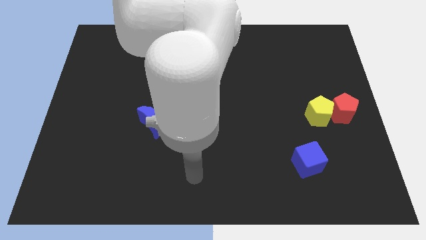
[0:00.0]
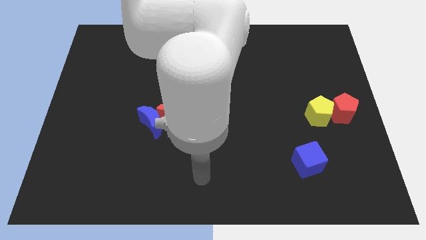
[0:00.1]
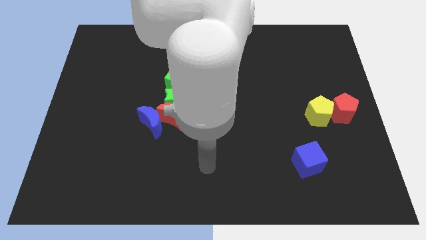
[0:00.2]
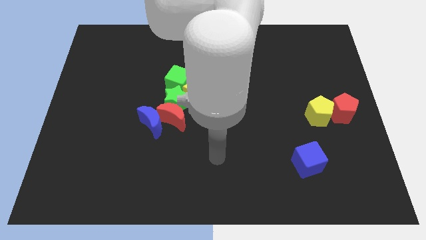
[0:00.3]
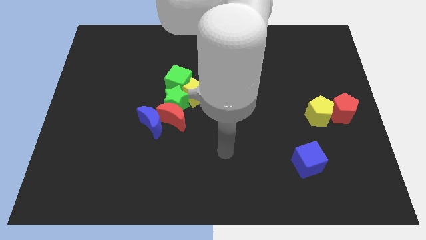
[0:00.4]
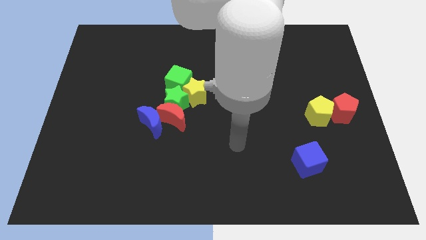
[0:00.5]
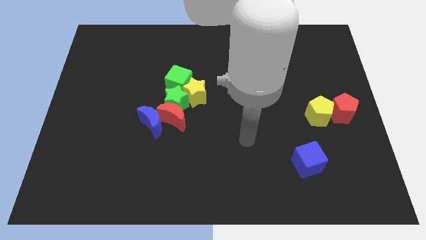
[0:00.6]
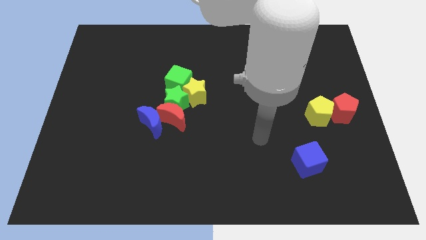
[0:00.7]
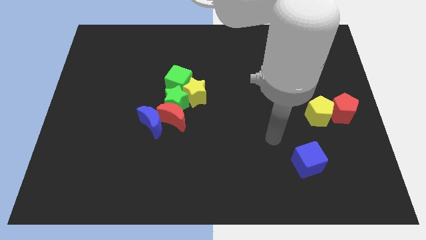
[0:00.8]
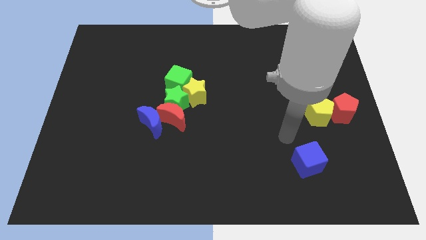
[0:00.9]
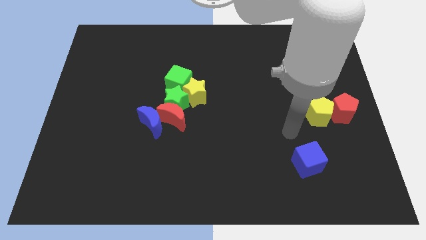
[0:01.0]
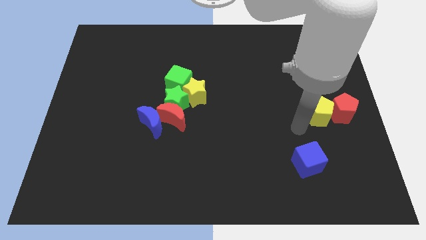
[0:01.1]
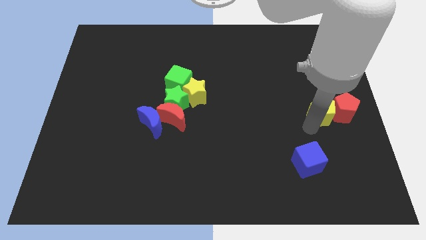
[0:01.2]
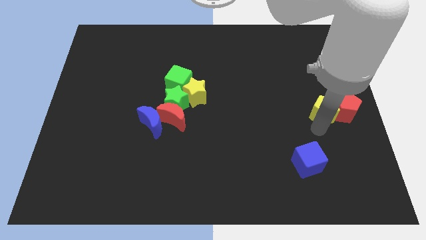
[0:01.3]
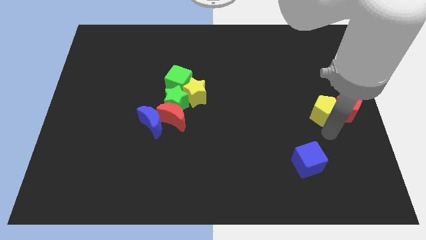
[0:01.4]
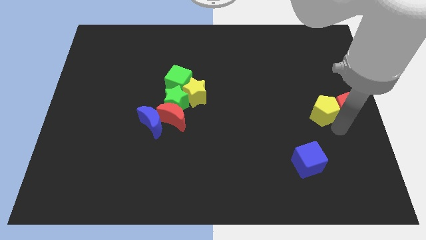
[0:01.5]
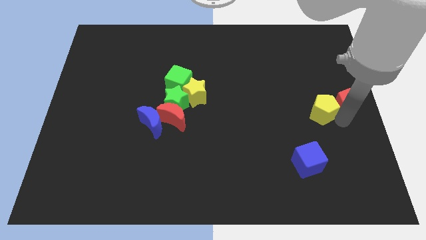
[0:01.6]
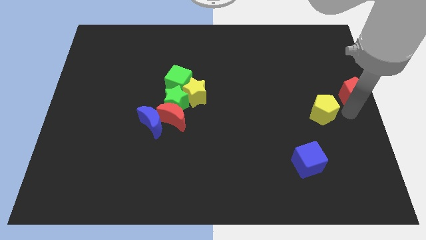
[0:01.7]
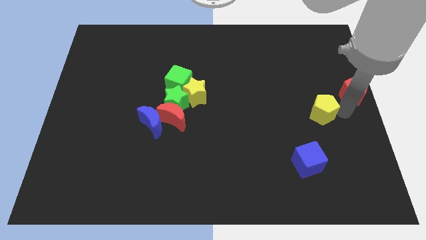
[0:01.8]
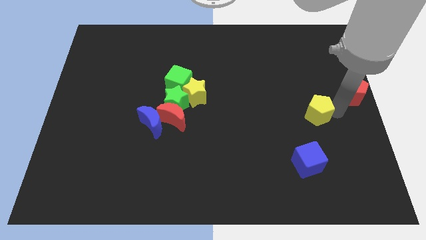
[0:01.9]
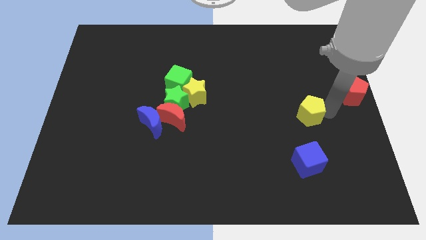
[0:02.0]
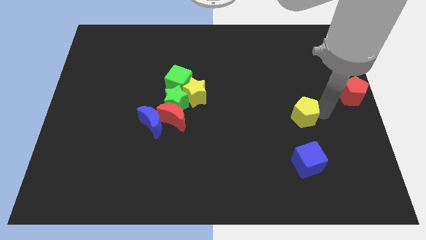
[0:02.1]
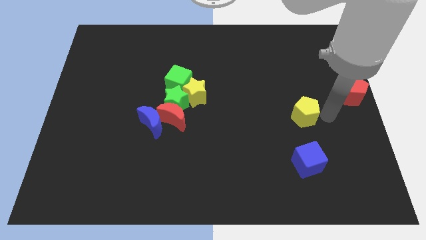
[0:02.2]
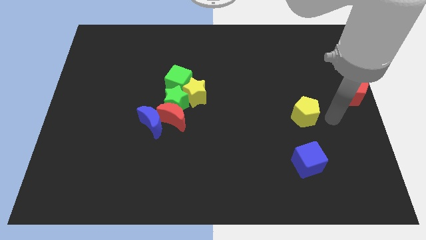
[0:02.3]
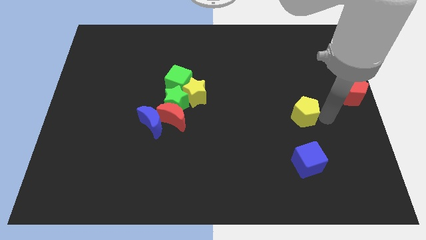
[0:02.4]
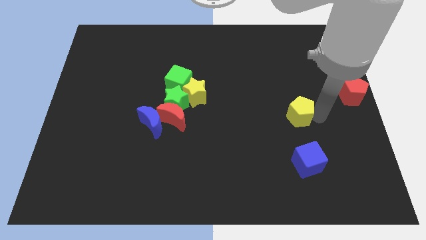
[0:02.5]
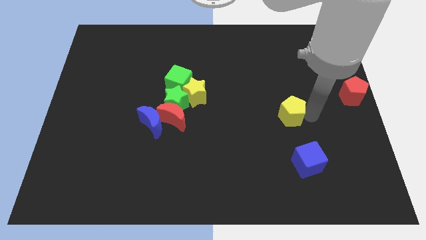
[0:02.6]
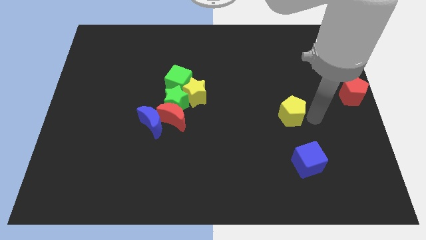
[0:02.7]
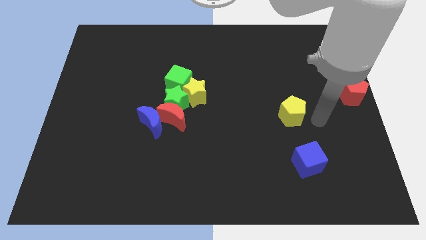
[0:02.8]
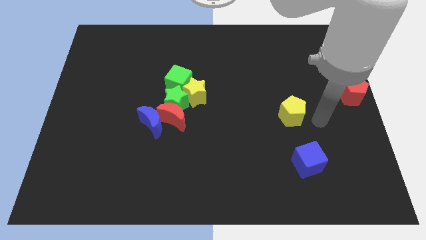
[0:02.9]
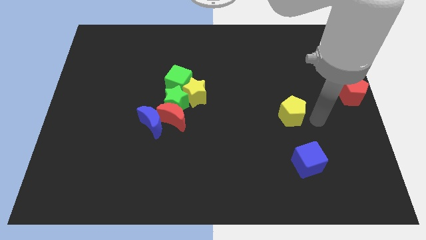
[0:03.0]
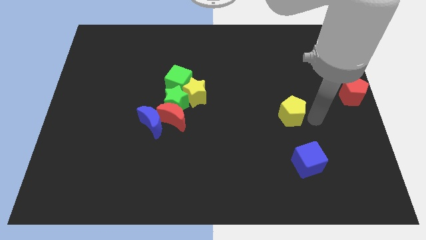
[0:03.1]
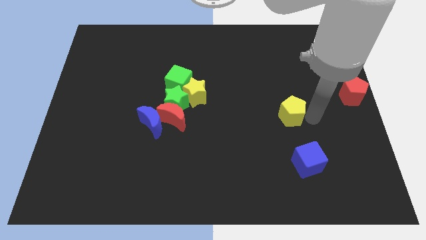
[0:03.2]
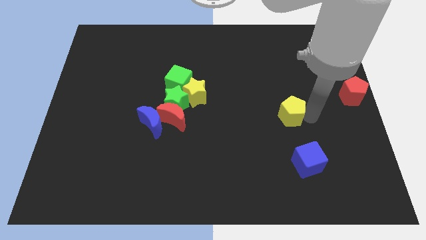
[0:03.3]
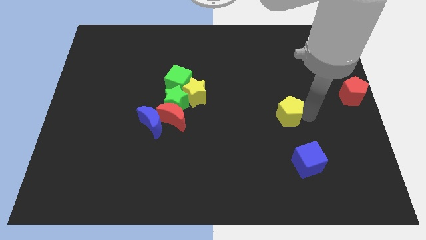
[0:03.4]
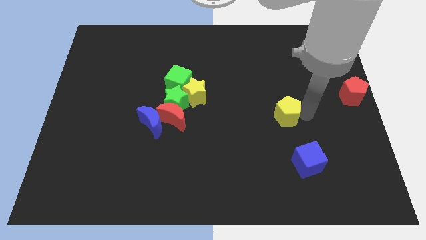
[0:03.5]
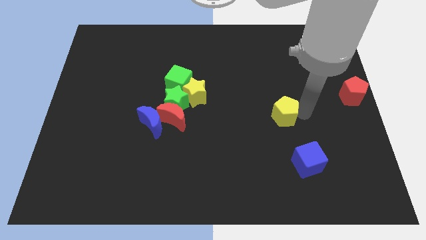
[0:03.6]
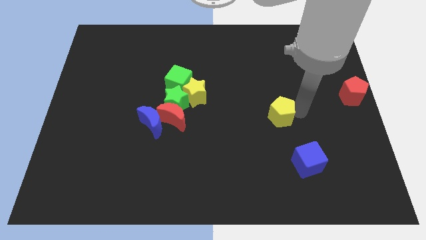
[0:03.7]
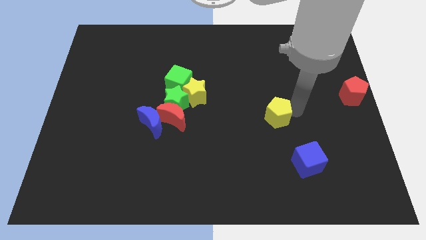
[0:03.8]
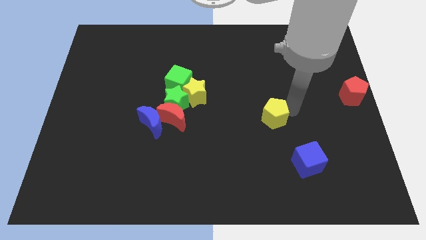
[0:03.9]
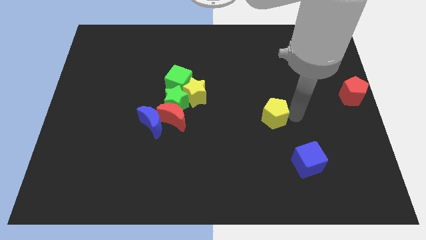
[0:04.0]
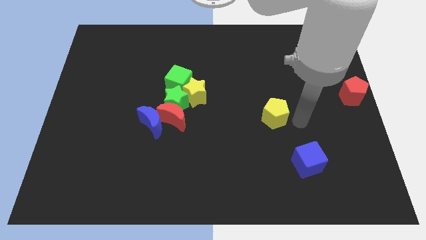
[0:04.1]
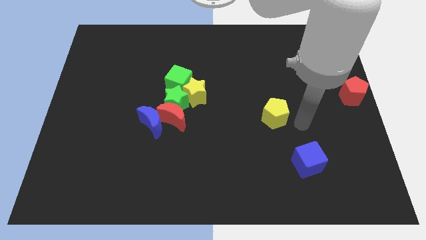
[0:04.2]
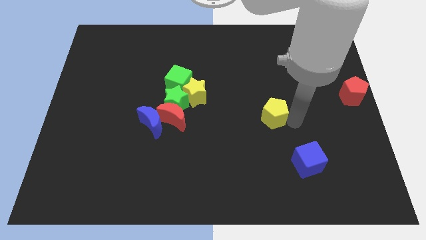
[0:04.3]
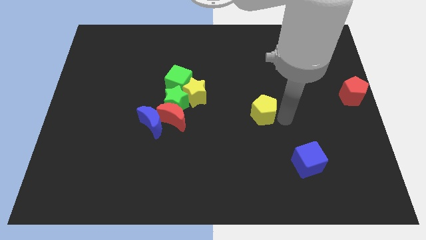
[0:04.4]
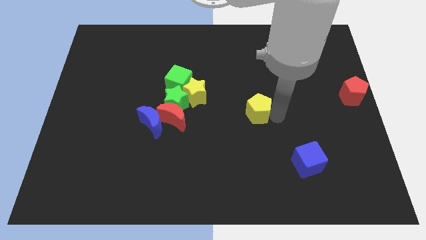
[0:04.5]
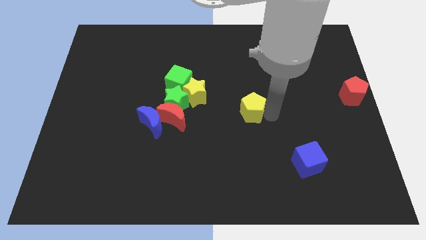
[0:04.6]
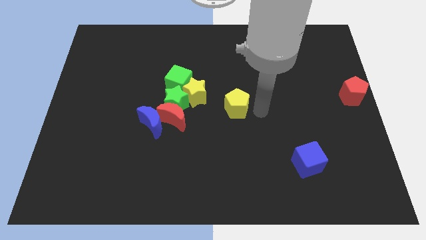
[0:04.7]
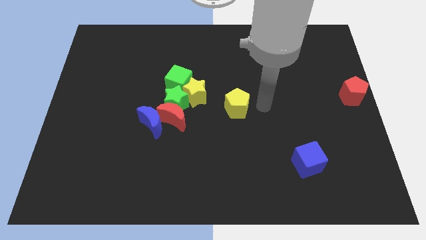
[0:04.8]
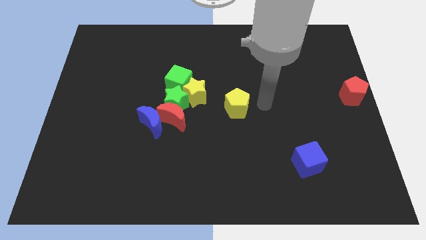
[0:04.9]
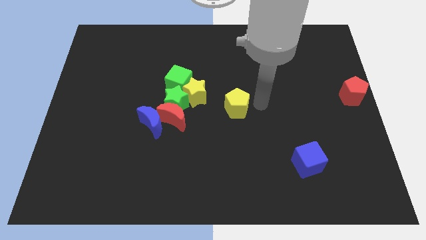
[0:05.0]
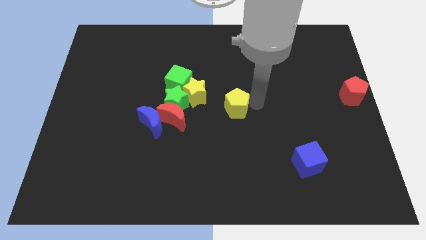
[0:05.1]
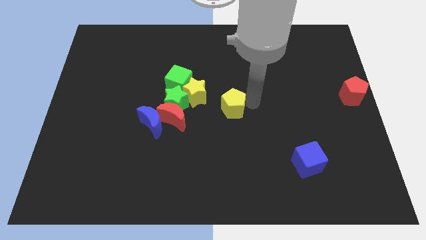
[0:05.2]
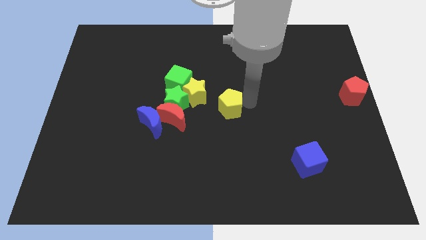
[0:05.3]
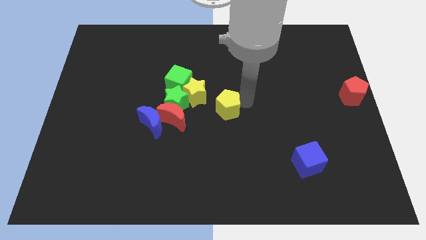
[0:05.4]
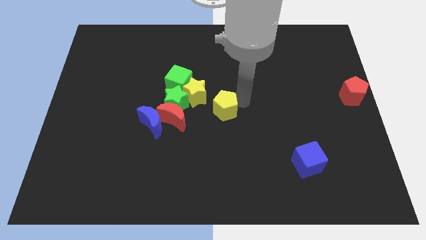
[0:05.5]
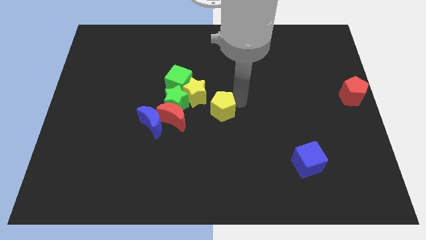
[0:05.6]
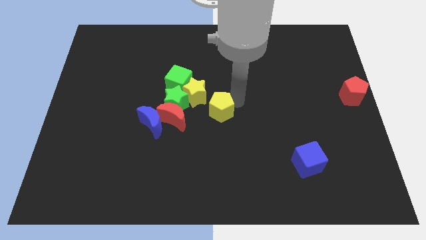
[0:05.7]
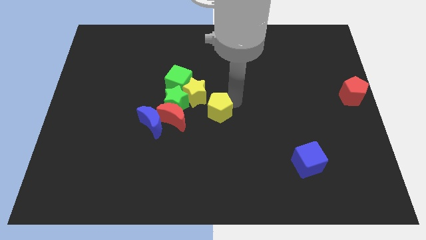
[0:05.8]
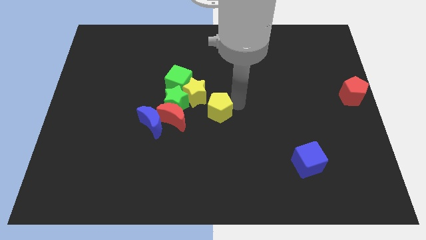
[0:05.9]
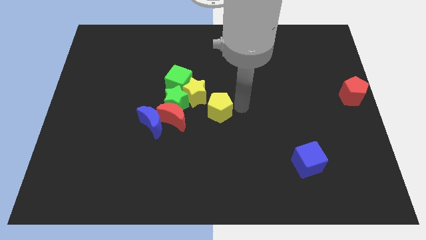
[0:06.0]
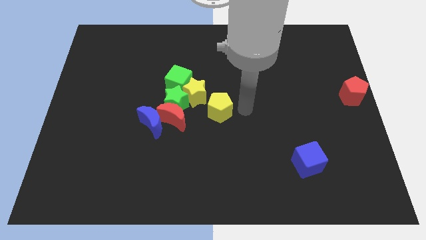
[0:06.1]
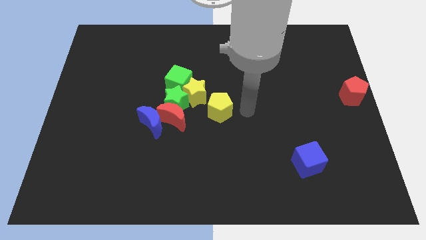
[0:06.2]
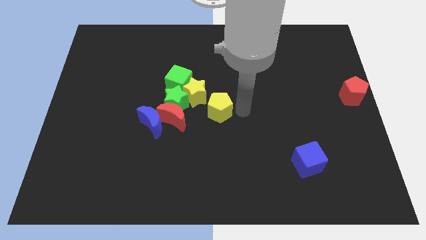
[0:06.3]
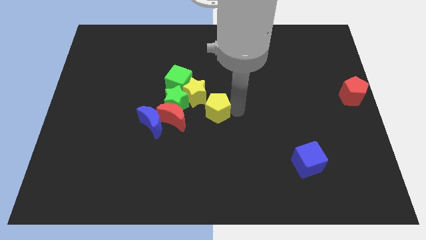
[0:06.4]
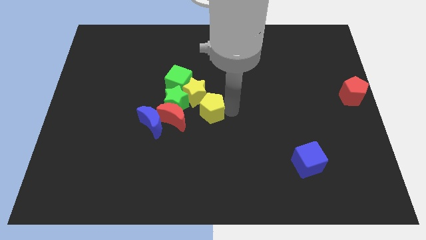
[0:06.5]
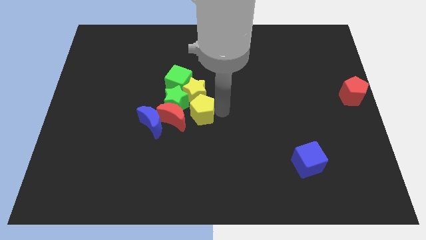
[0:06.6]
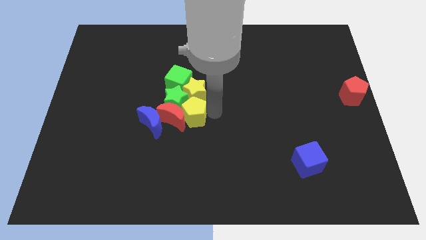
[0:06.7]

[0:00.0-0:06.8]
put the yellow pentagon next to the green star
